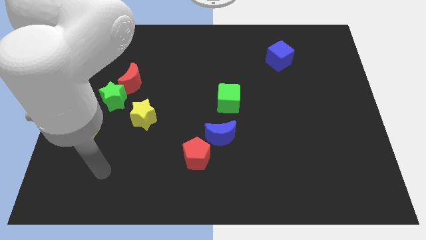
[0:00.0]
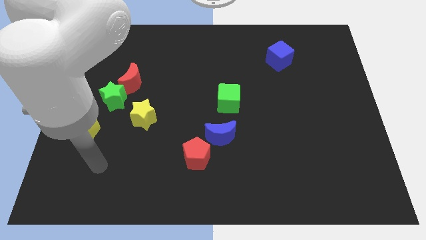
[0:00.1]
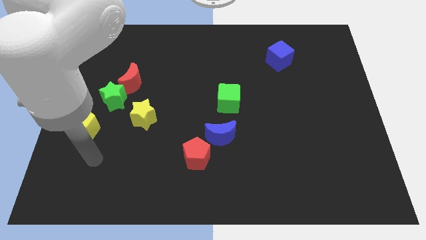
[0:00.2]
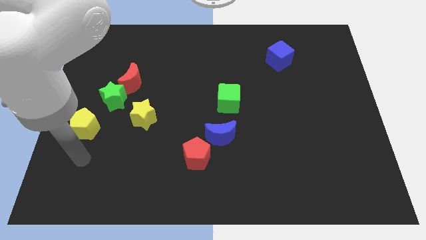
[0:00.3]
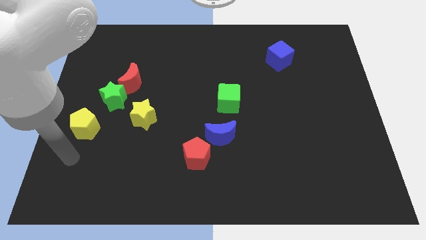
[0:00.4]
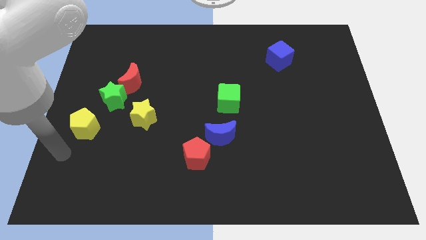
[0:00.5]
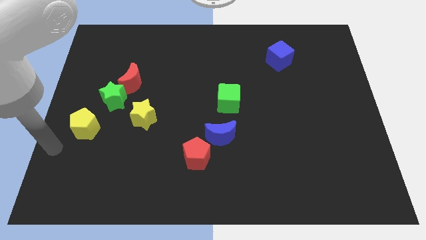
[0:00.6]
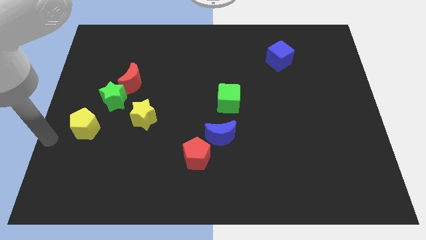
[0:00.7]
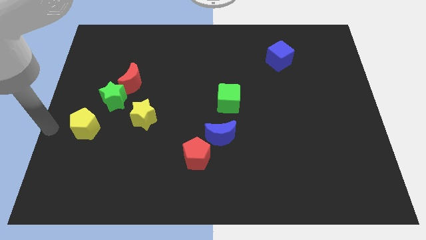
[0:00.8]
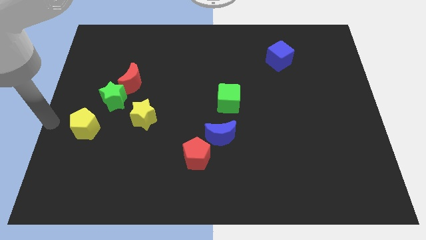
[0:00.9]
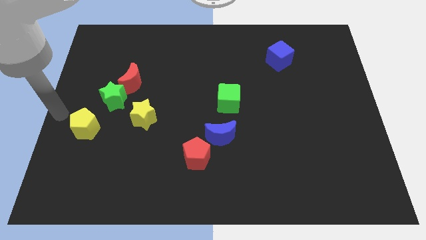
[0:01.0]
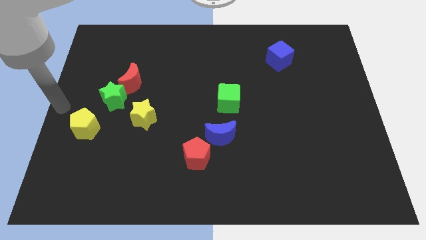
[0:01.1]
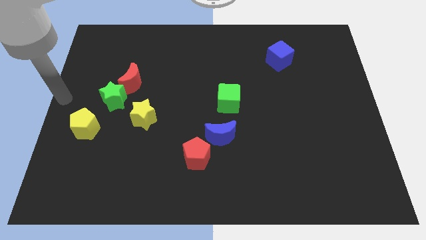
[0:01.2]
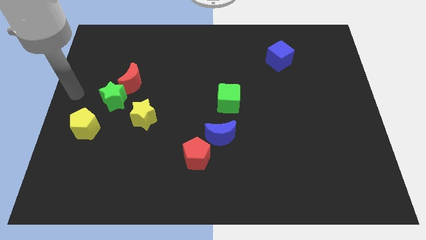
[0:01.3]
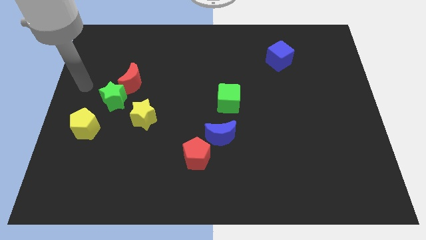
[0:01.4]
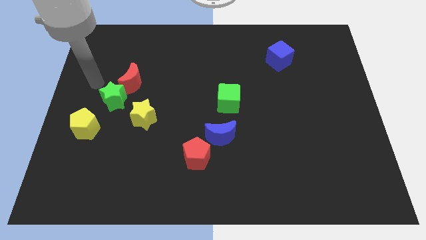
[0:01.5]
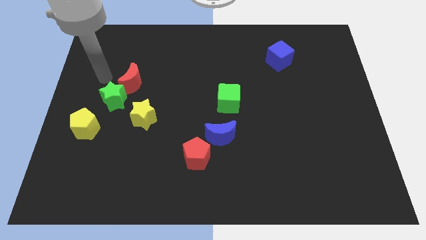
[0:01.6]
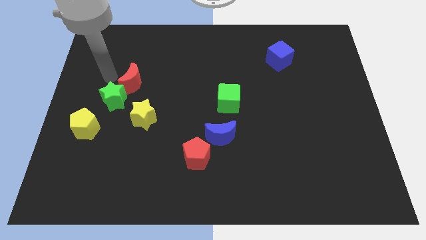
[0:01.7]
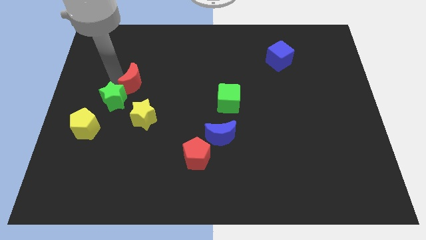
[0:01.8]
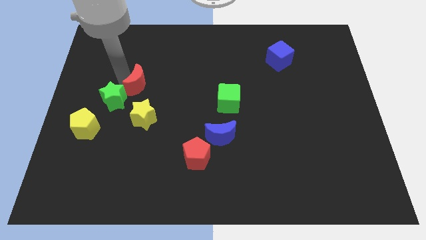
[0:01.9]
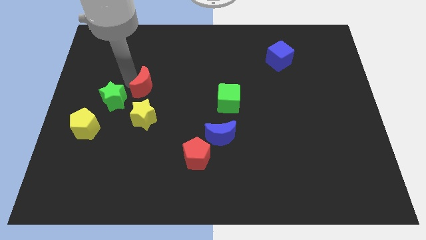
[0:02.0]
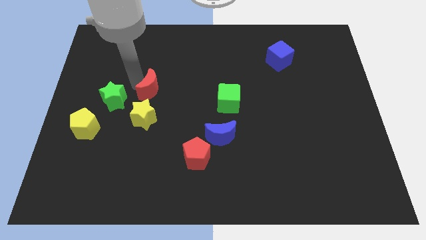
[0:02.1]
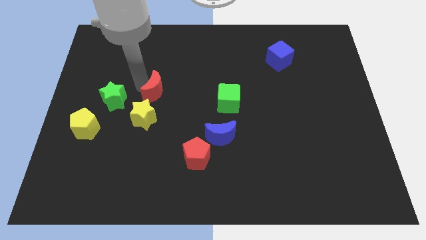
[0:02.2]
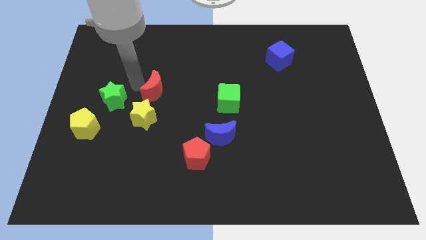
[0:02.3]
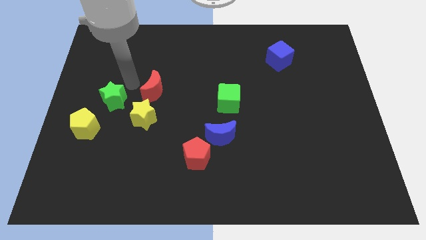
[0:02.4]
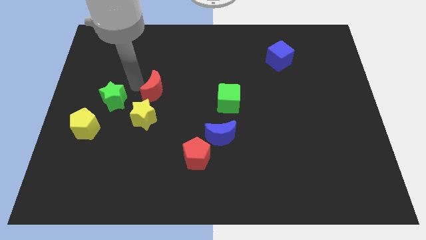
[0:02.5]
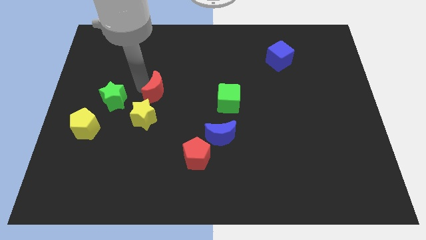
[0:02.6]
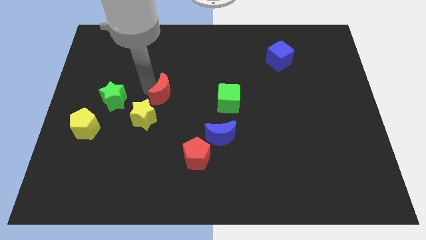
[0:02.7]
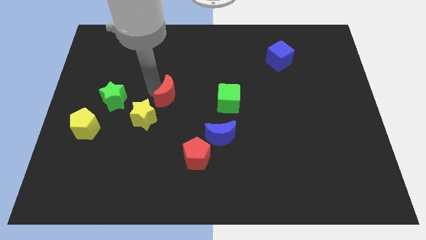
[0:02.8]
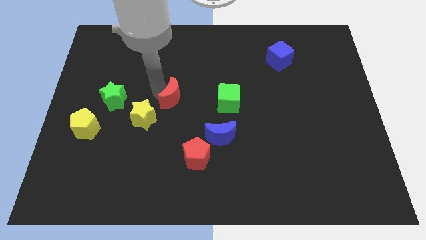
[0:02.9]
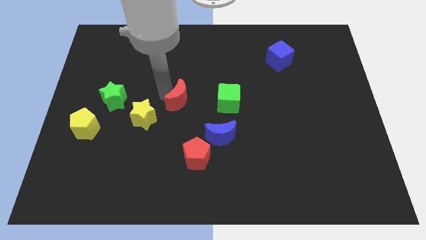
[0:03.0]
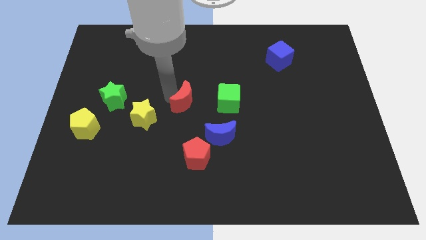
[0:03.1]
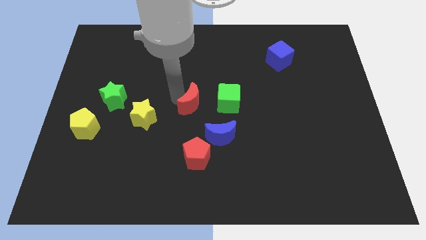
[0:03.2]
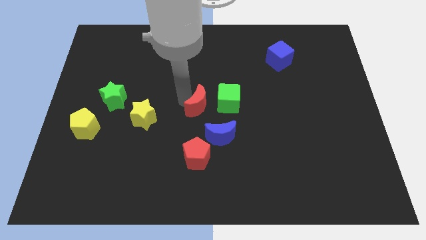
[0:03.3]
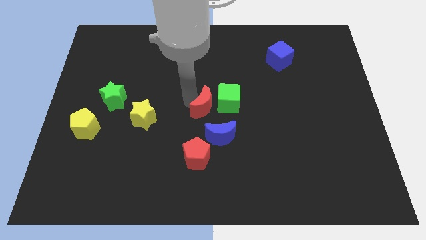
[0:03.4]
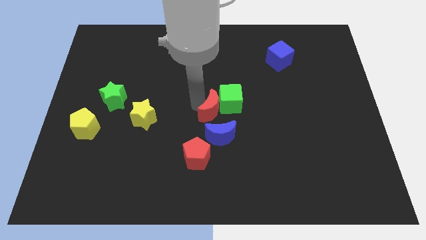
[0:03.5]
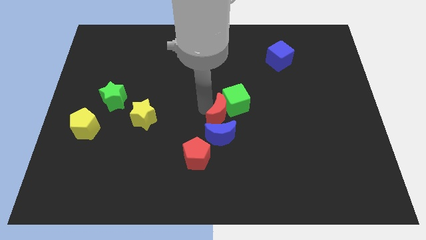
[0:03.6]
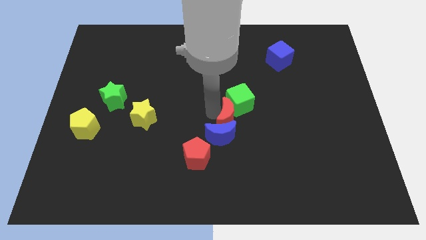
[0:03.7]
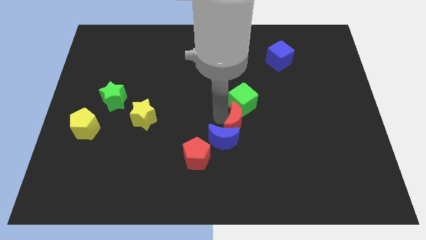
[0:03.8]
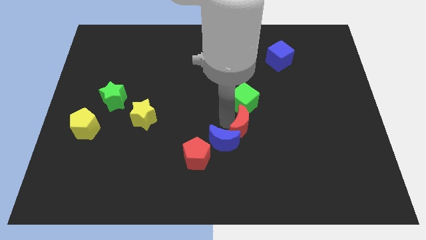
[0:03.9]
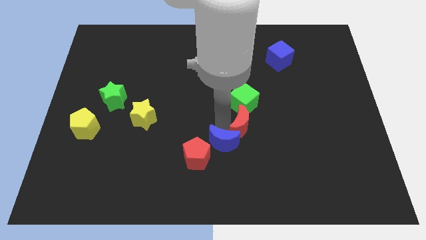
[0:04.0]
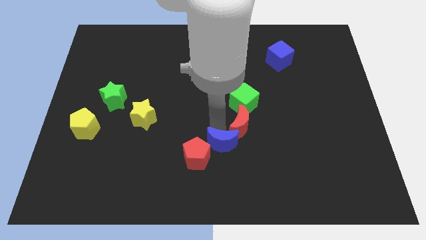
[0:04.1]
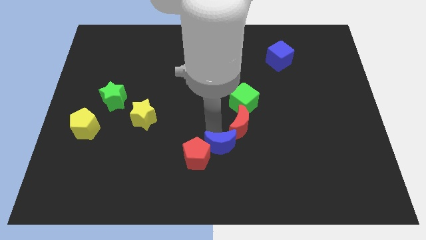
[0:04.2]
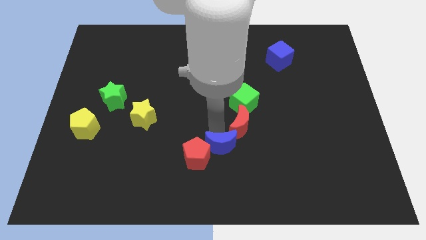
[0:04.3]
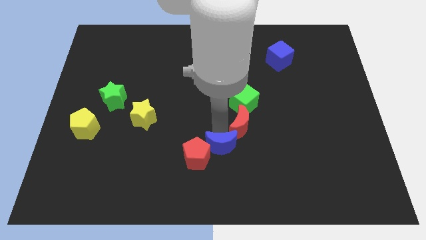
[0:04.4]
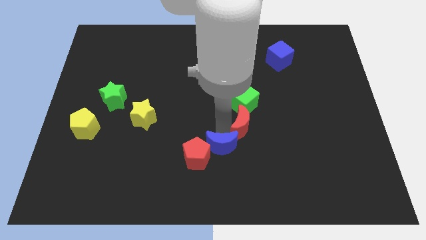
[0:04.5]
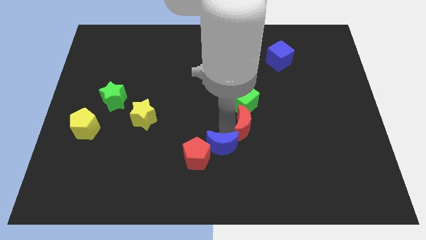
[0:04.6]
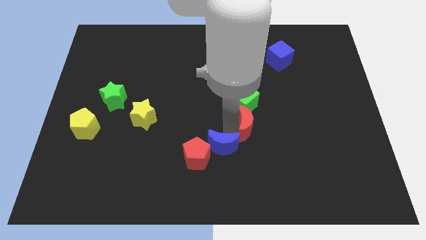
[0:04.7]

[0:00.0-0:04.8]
slide the red moon to the bottom right side of the green cube

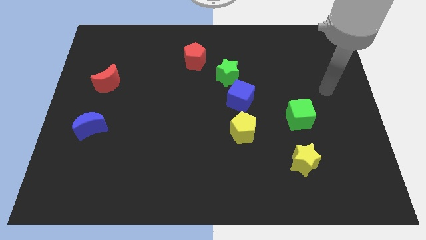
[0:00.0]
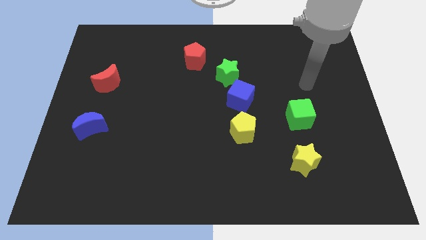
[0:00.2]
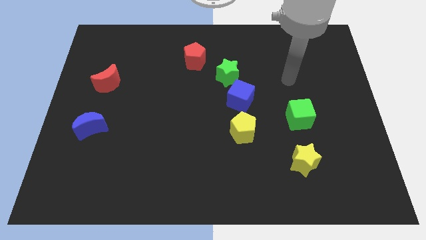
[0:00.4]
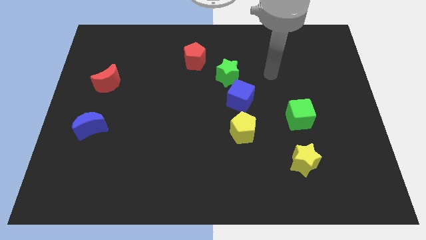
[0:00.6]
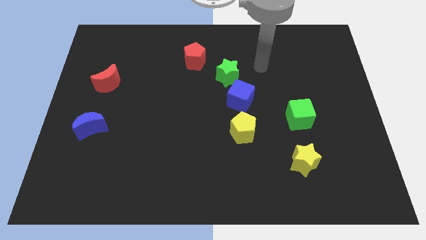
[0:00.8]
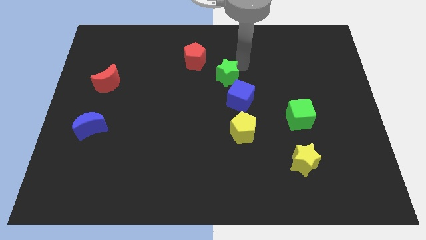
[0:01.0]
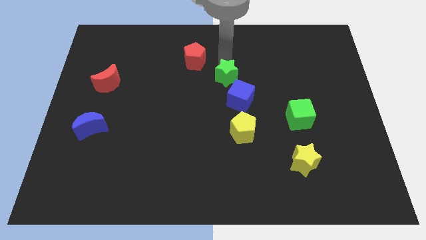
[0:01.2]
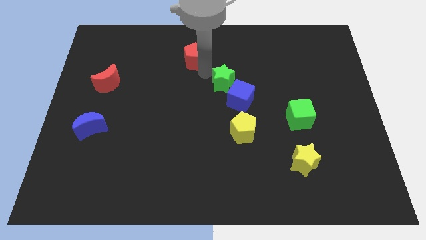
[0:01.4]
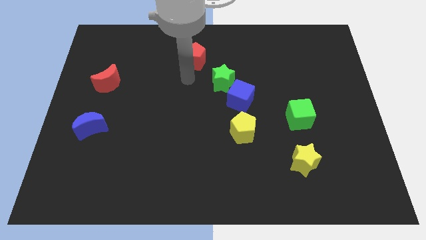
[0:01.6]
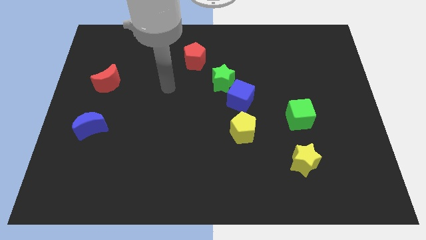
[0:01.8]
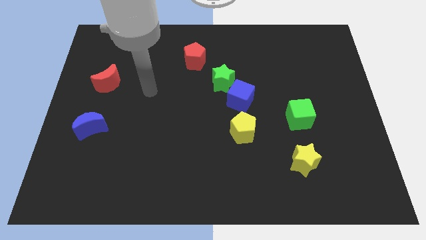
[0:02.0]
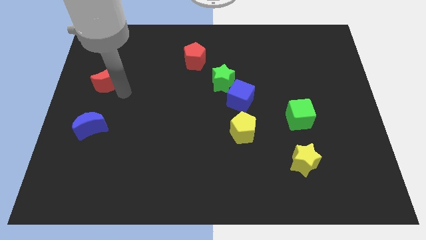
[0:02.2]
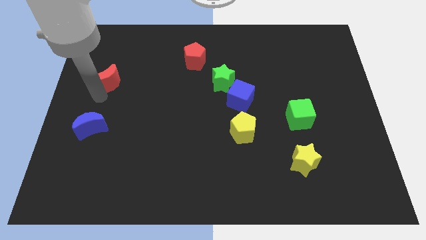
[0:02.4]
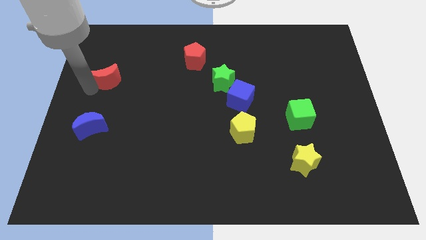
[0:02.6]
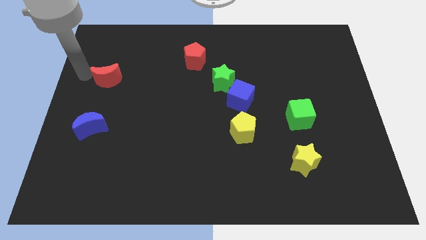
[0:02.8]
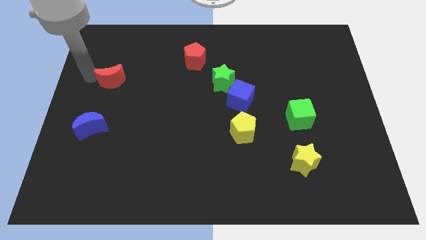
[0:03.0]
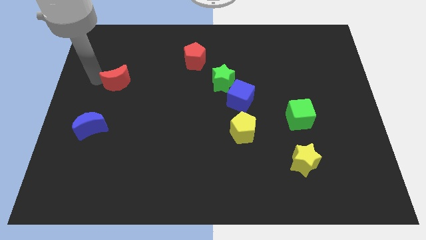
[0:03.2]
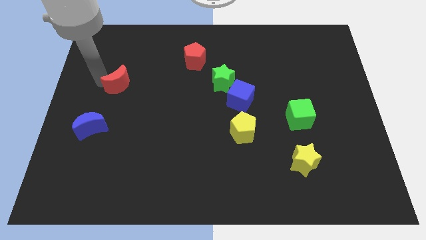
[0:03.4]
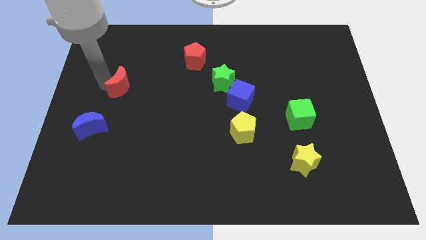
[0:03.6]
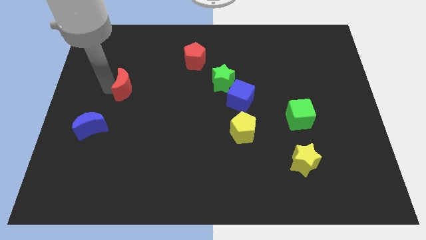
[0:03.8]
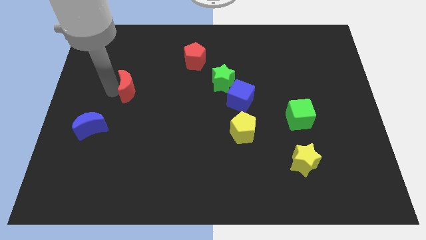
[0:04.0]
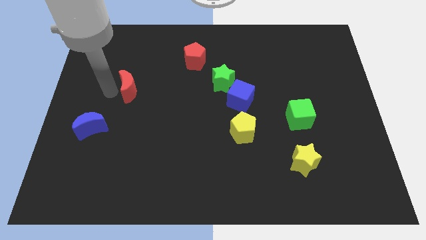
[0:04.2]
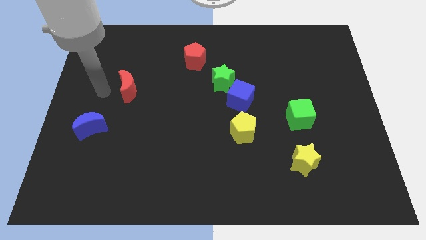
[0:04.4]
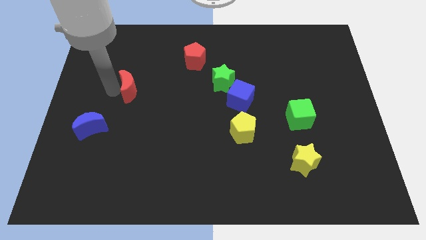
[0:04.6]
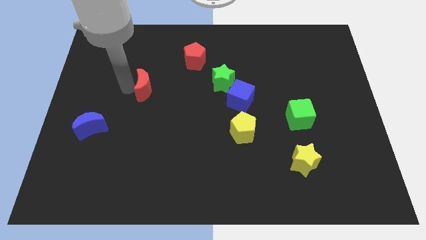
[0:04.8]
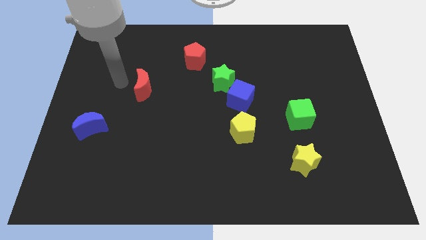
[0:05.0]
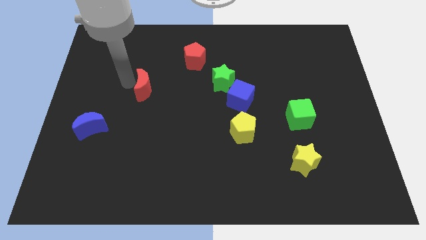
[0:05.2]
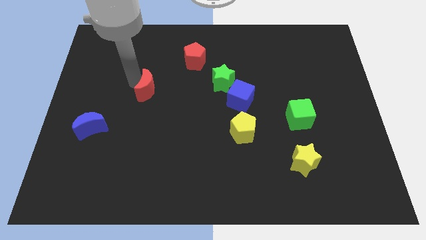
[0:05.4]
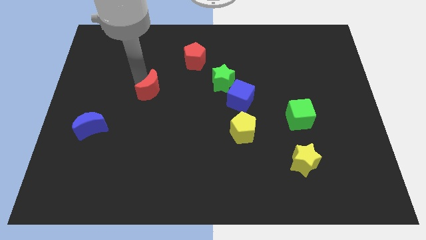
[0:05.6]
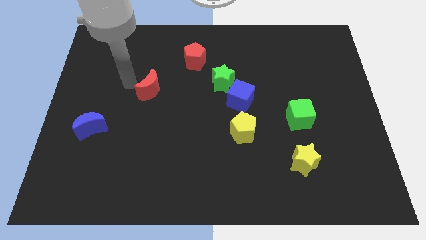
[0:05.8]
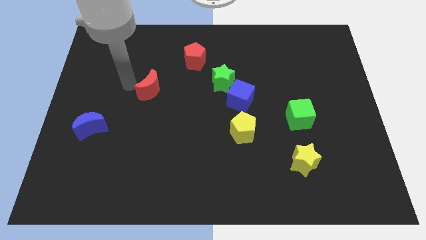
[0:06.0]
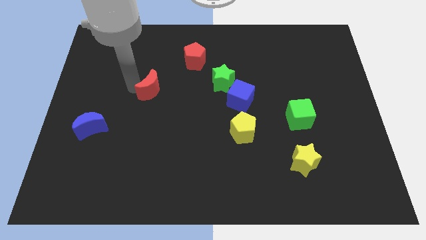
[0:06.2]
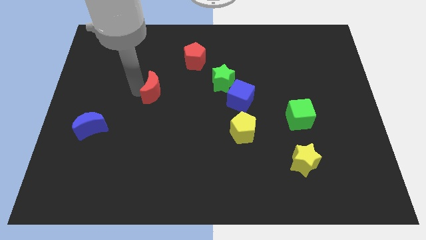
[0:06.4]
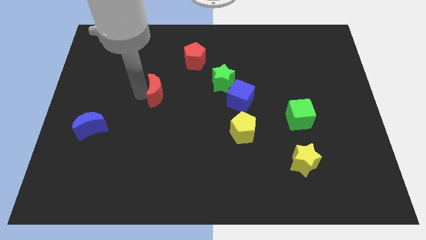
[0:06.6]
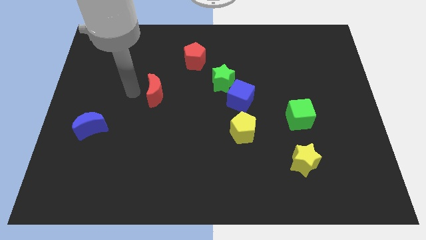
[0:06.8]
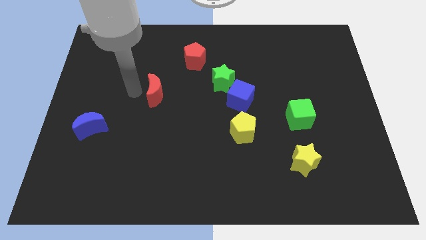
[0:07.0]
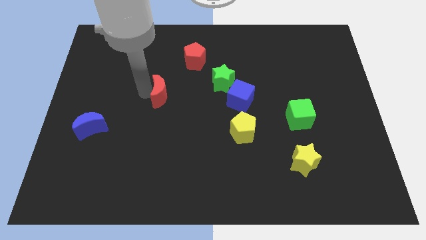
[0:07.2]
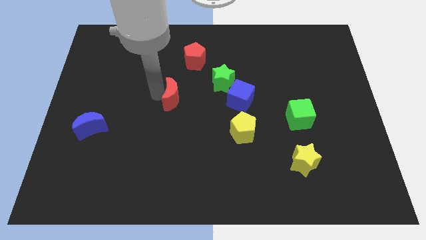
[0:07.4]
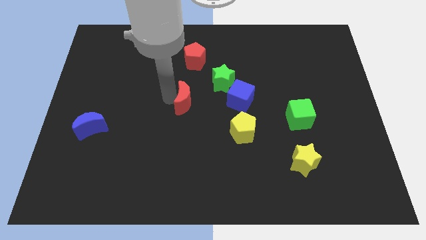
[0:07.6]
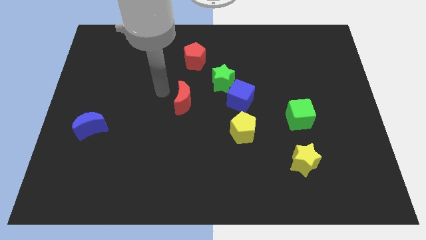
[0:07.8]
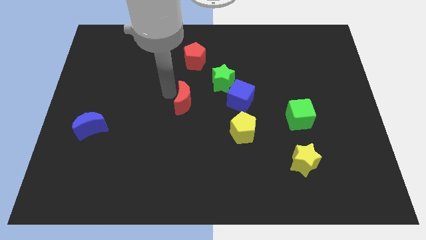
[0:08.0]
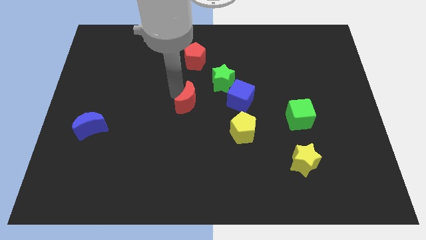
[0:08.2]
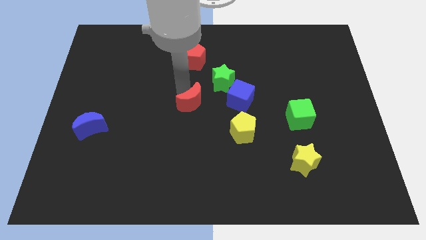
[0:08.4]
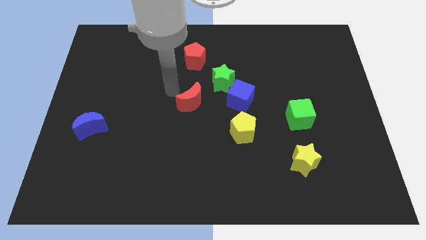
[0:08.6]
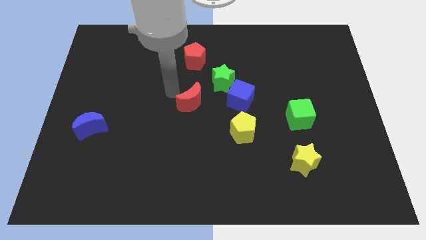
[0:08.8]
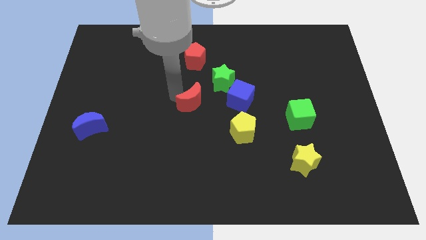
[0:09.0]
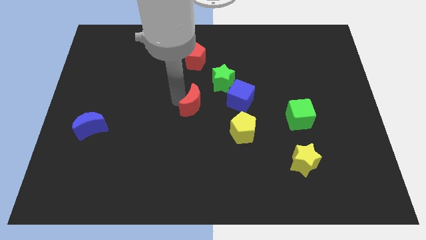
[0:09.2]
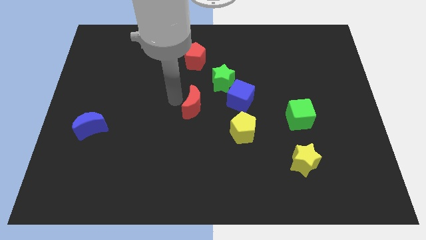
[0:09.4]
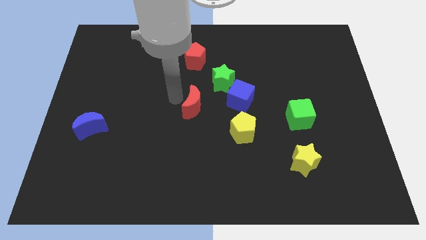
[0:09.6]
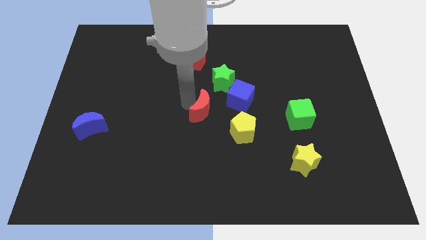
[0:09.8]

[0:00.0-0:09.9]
move the red moon to the bottom left of the blue cube
